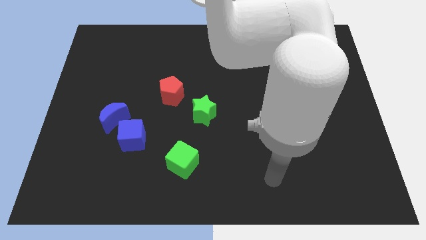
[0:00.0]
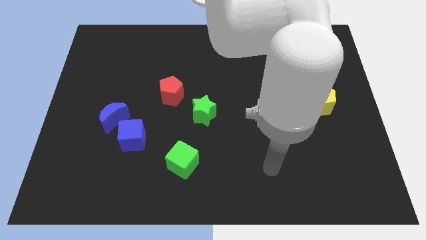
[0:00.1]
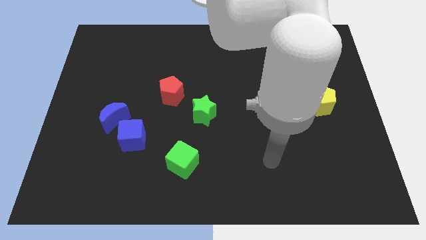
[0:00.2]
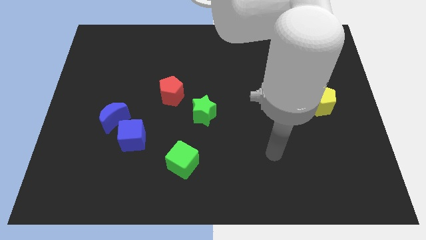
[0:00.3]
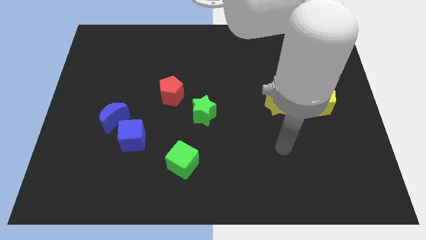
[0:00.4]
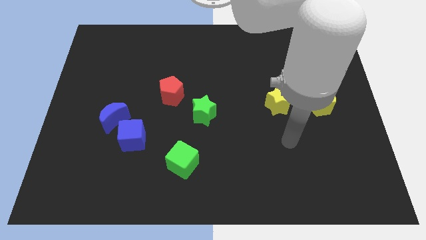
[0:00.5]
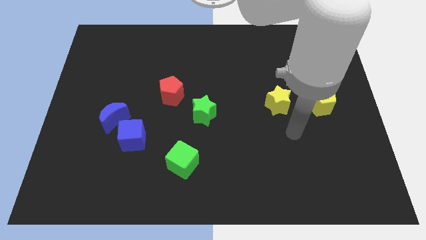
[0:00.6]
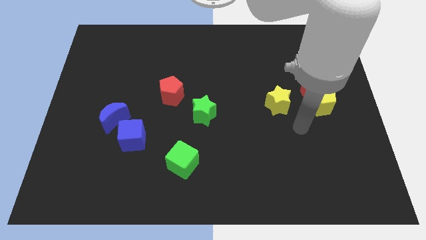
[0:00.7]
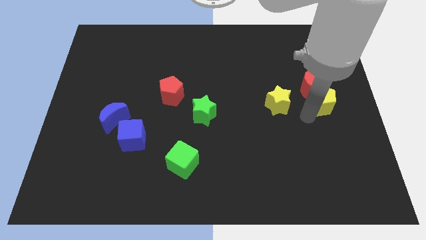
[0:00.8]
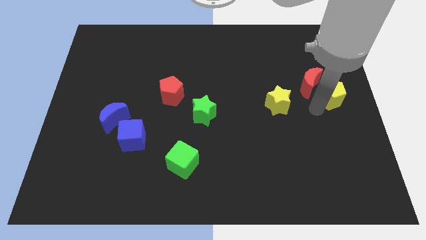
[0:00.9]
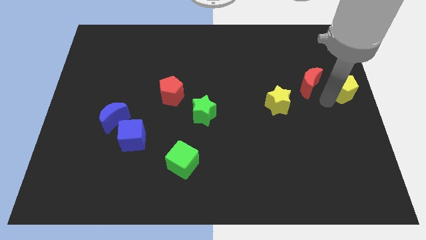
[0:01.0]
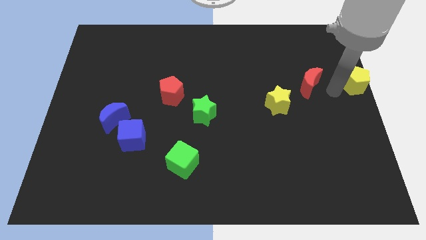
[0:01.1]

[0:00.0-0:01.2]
move the red moon away from the yellow pentagon

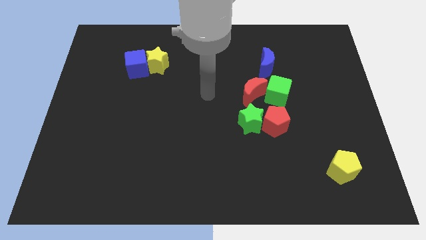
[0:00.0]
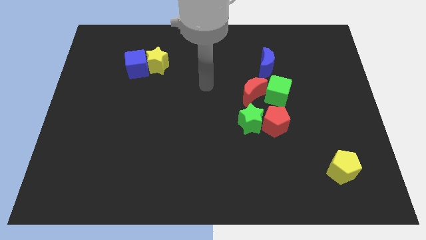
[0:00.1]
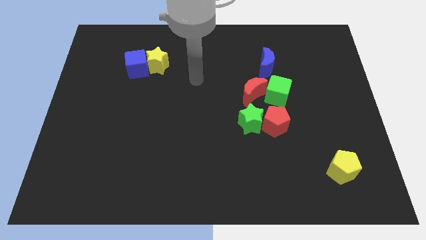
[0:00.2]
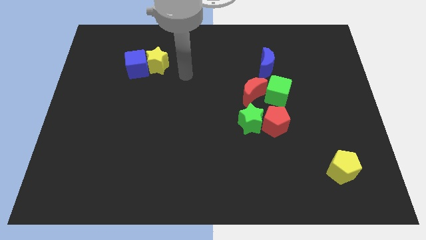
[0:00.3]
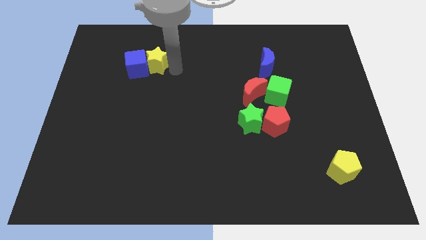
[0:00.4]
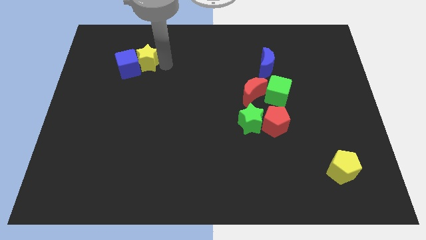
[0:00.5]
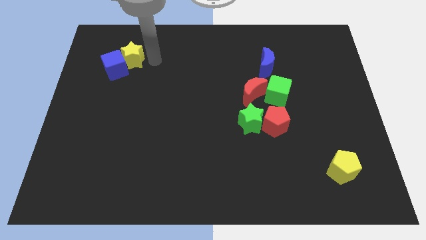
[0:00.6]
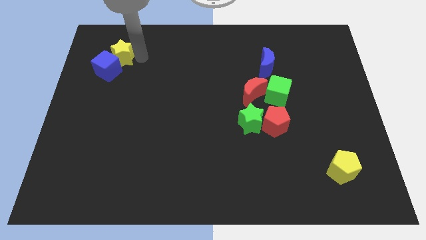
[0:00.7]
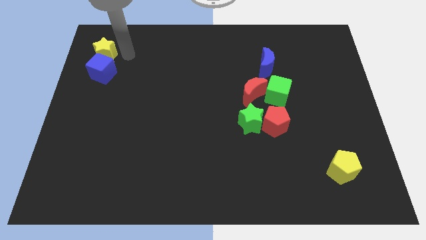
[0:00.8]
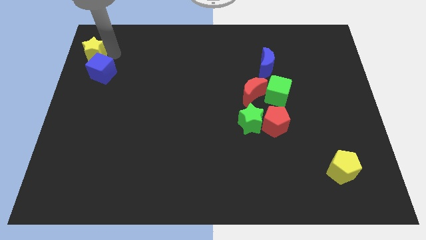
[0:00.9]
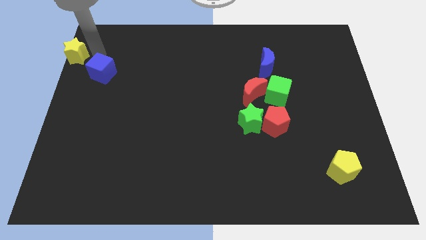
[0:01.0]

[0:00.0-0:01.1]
separate the blue cube from the yellow star

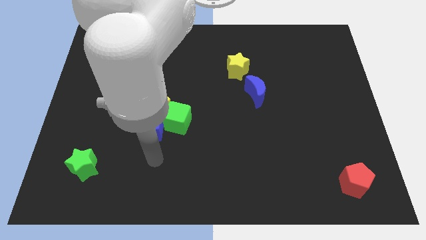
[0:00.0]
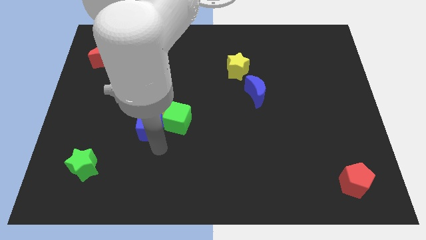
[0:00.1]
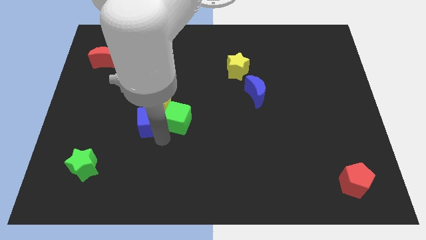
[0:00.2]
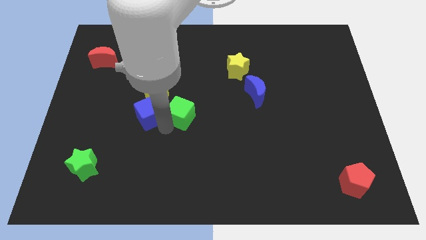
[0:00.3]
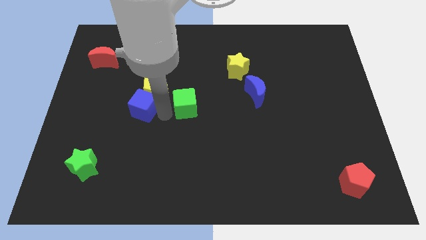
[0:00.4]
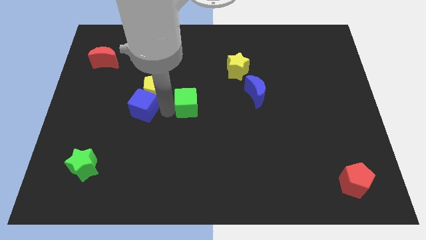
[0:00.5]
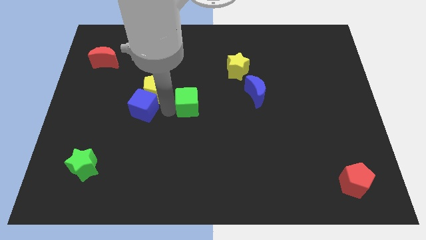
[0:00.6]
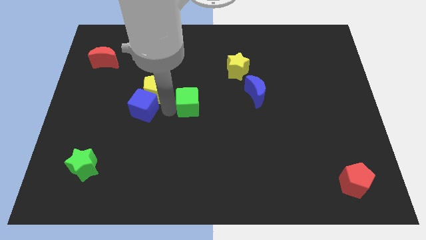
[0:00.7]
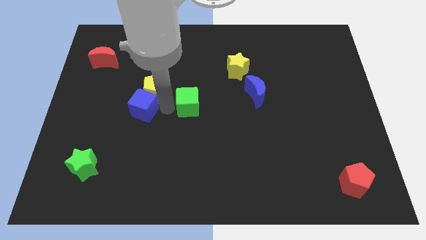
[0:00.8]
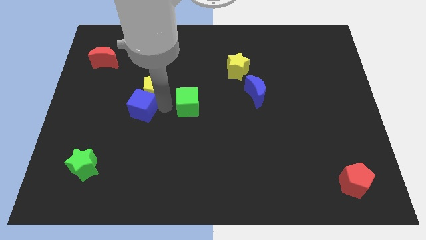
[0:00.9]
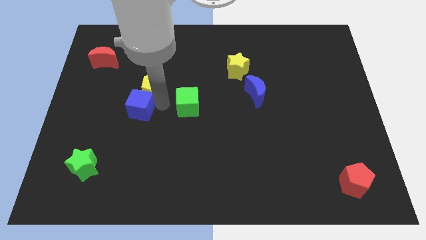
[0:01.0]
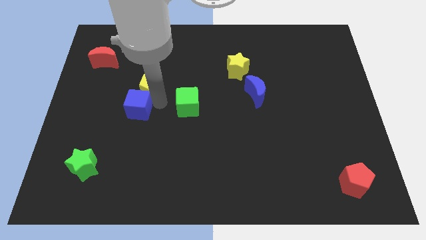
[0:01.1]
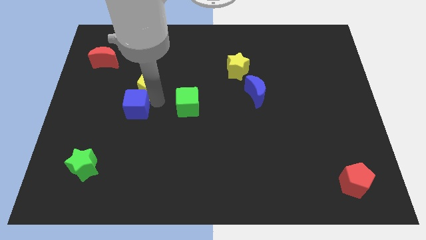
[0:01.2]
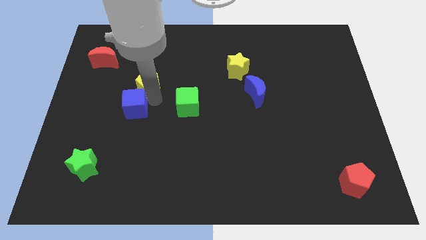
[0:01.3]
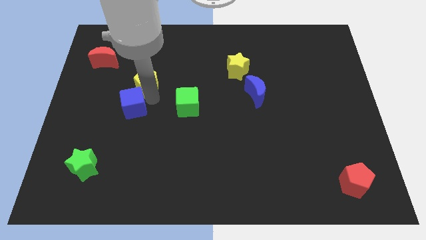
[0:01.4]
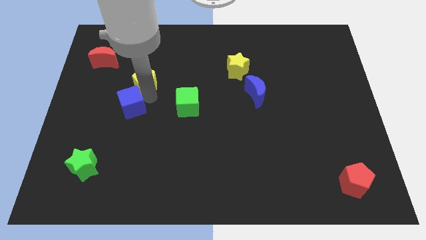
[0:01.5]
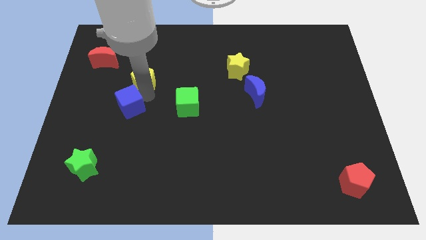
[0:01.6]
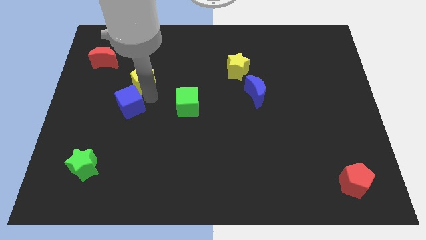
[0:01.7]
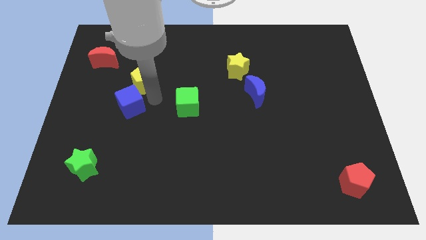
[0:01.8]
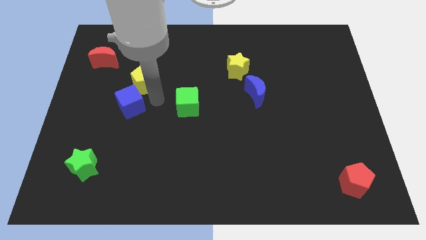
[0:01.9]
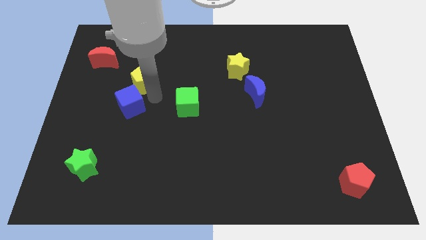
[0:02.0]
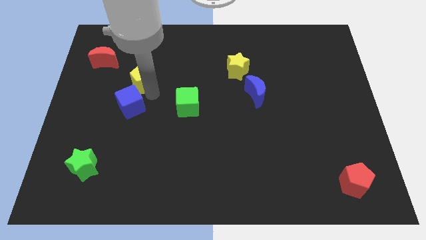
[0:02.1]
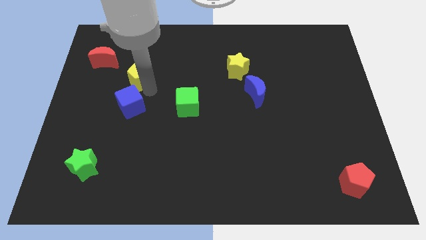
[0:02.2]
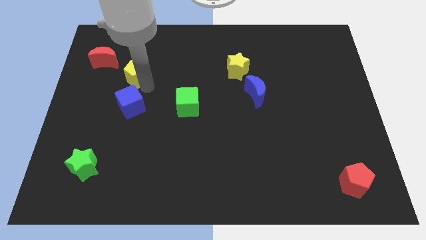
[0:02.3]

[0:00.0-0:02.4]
pull the yellow pentagon apart from the blue cube and green cube

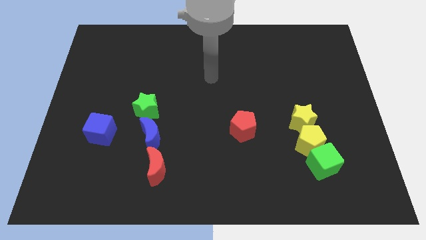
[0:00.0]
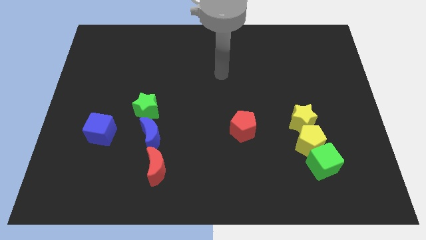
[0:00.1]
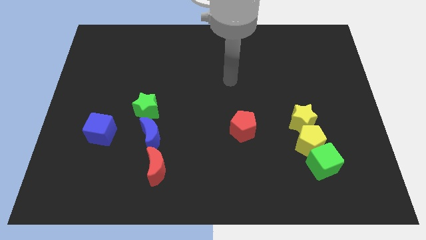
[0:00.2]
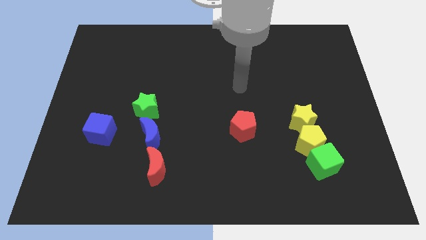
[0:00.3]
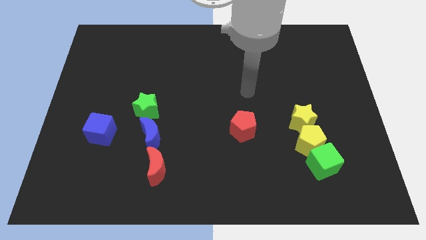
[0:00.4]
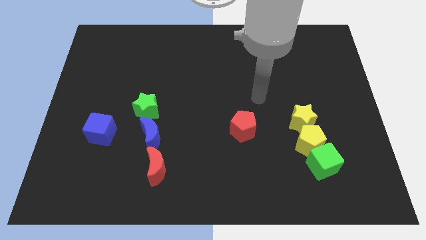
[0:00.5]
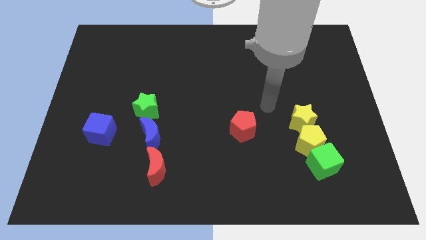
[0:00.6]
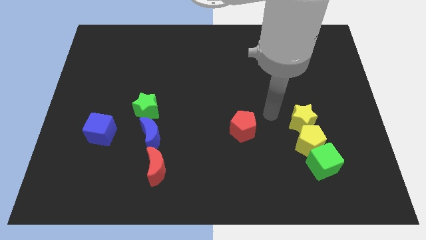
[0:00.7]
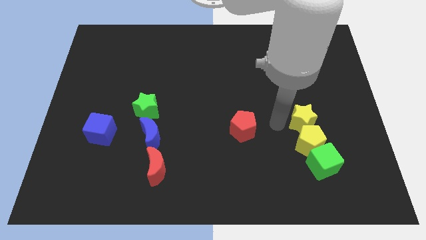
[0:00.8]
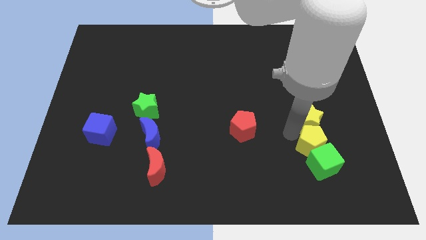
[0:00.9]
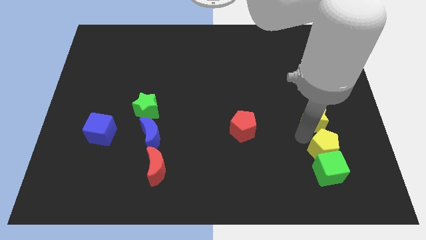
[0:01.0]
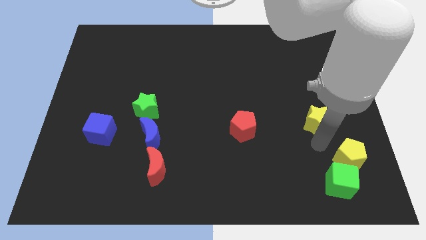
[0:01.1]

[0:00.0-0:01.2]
move the yellow star away from the yellow pentagon

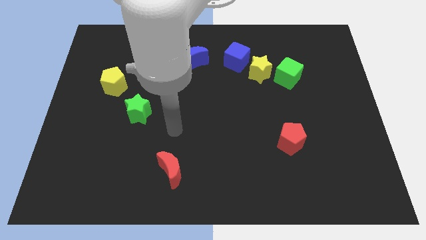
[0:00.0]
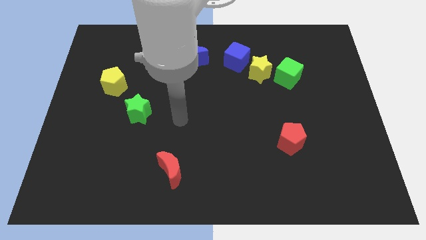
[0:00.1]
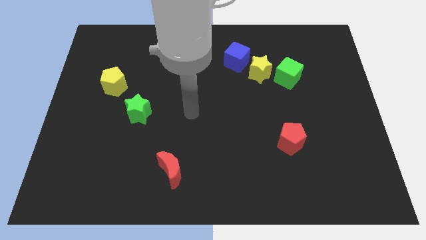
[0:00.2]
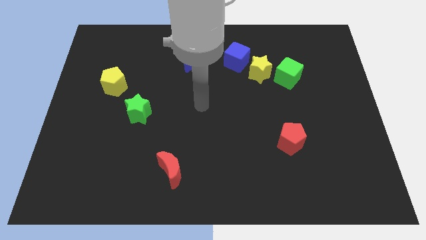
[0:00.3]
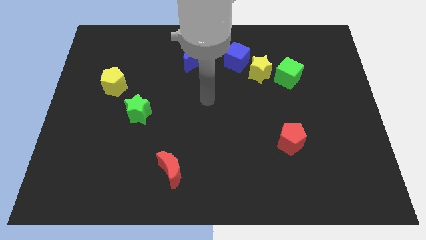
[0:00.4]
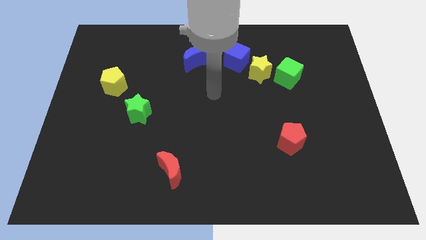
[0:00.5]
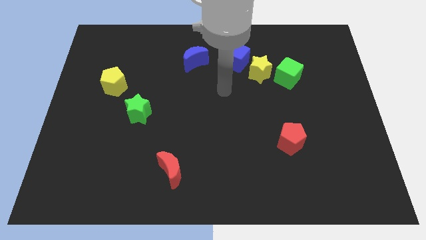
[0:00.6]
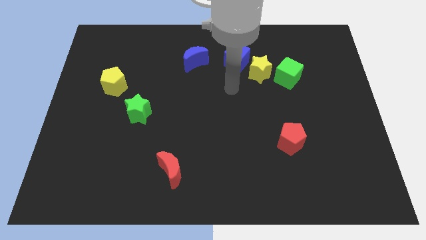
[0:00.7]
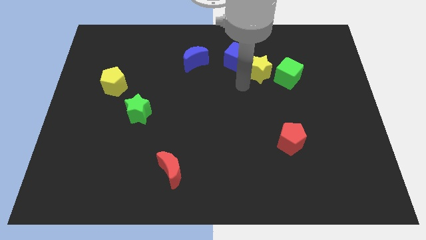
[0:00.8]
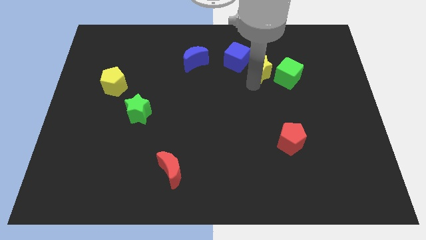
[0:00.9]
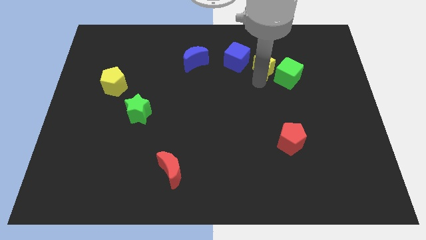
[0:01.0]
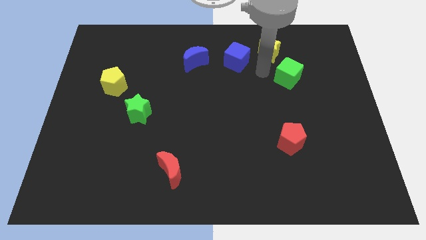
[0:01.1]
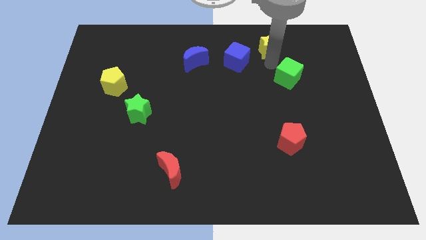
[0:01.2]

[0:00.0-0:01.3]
separate the green cube from the yellow star

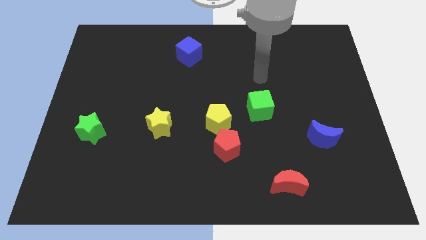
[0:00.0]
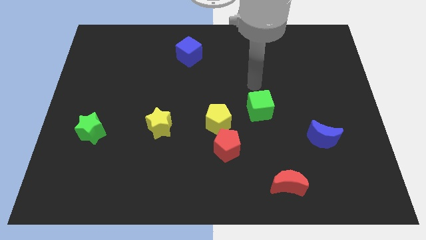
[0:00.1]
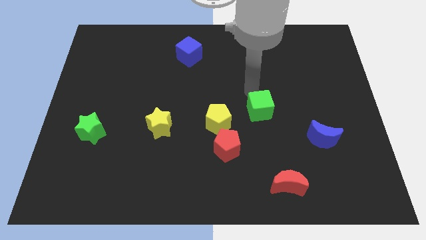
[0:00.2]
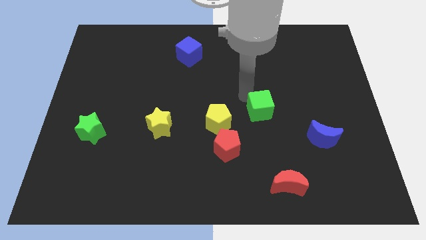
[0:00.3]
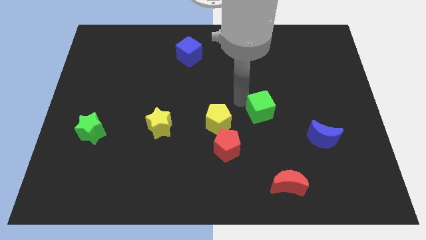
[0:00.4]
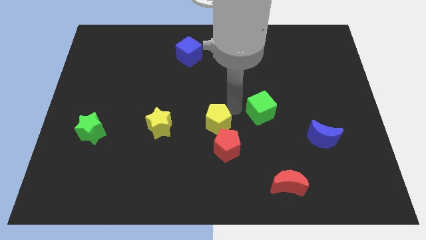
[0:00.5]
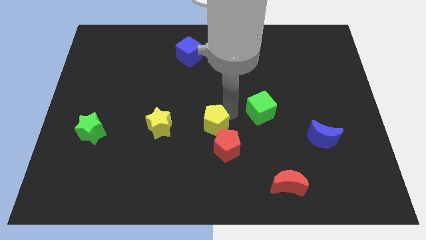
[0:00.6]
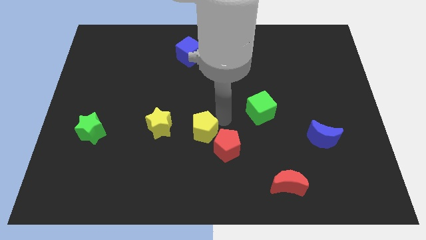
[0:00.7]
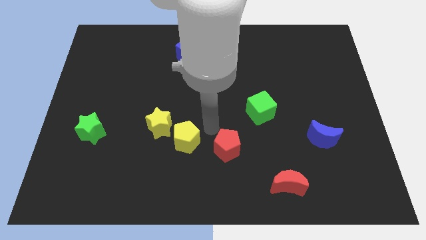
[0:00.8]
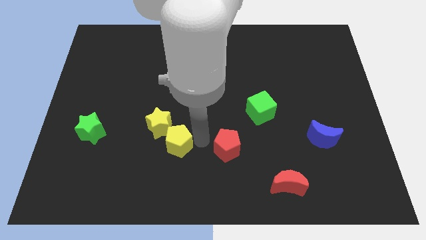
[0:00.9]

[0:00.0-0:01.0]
pull the red pentagon apart from the yellow pentagon

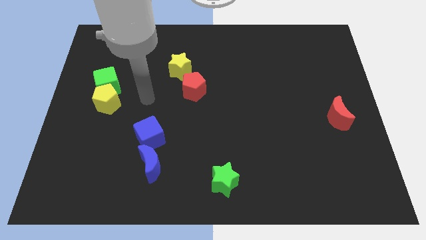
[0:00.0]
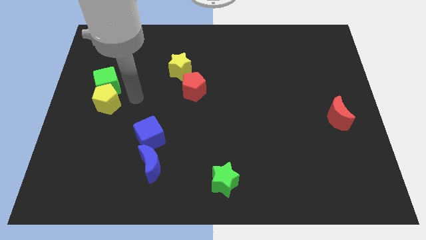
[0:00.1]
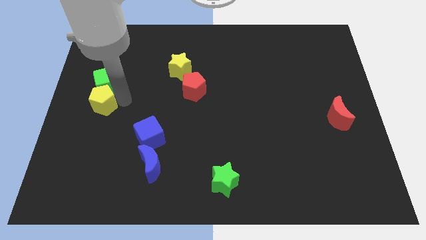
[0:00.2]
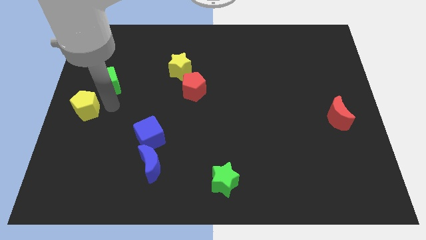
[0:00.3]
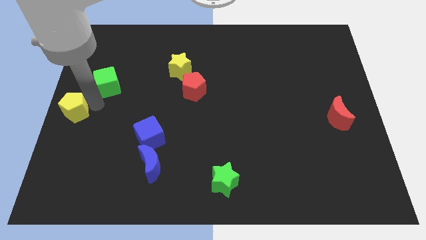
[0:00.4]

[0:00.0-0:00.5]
pull the green cube apart from the yellow pentagon

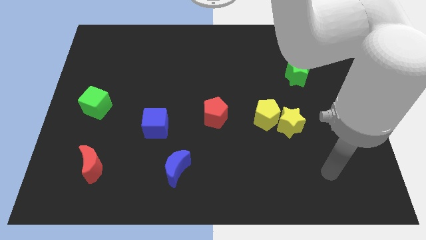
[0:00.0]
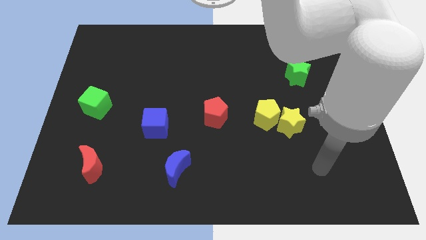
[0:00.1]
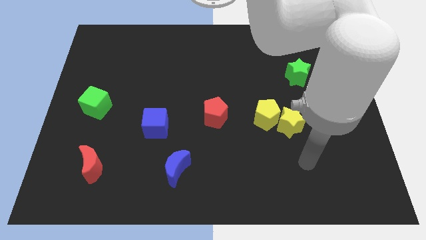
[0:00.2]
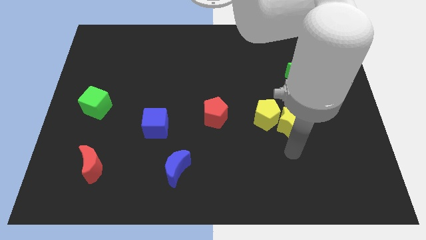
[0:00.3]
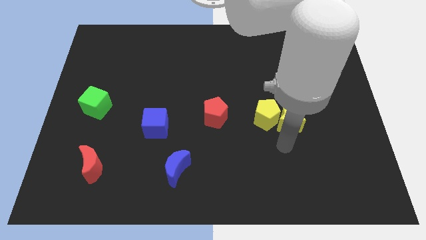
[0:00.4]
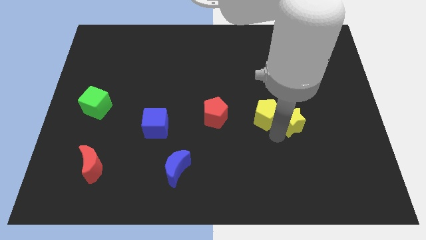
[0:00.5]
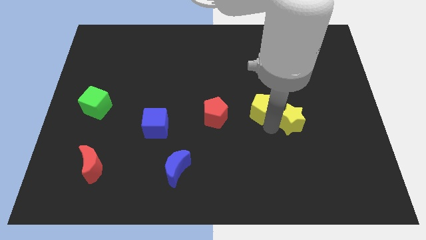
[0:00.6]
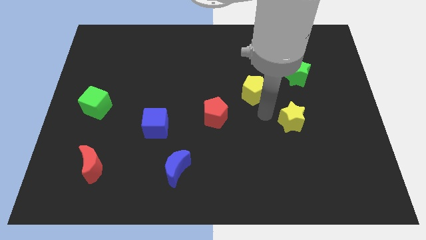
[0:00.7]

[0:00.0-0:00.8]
separate the yellow star from the yellow pentagon
